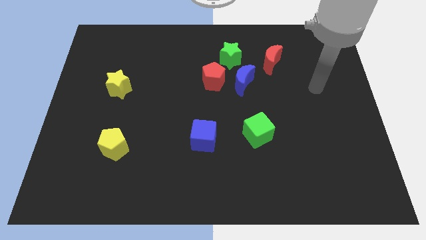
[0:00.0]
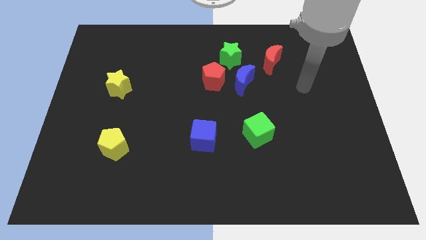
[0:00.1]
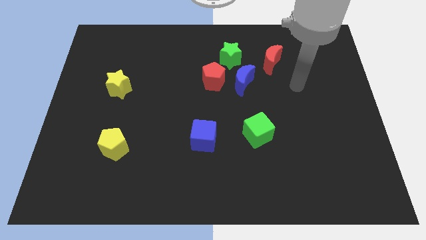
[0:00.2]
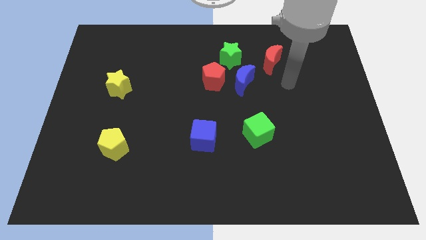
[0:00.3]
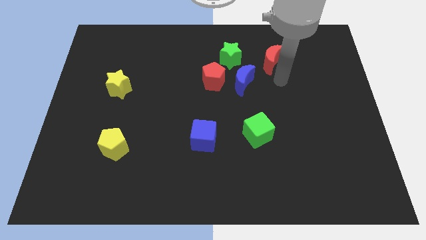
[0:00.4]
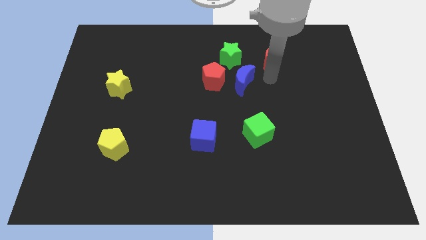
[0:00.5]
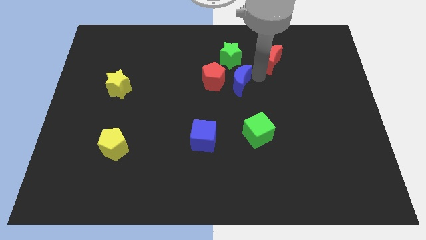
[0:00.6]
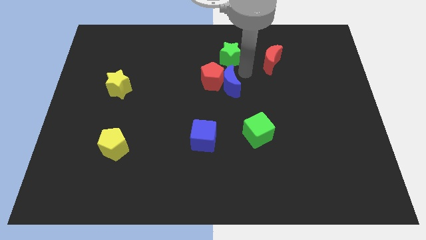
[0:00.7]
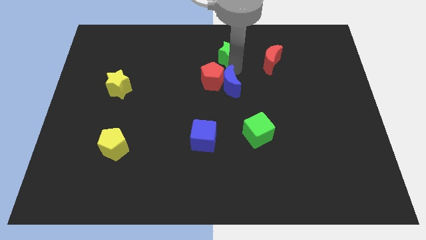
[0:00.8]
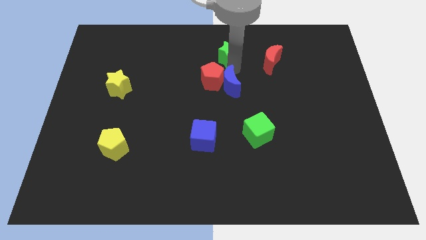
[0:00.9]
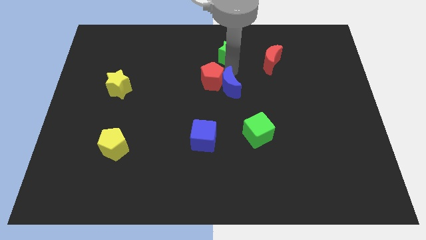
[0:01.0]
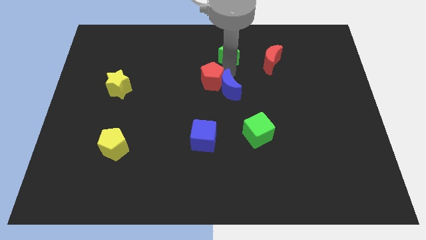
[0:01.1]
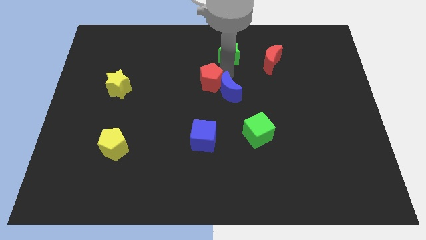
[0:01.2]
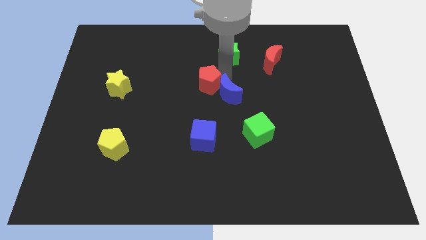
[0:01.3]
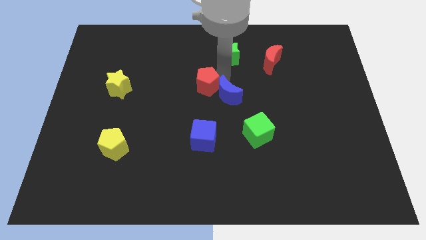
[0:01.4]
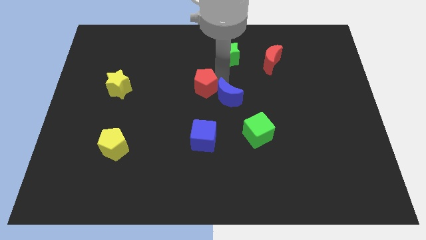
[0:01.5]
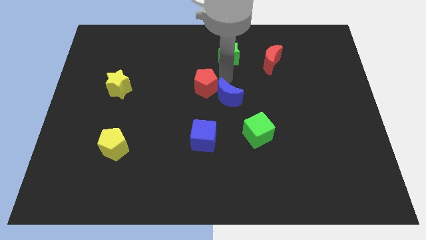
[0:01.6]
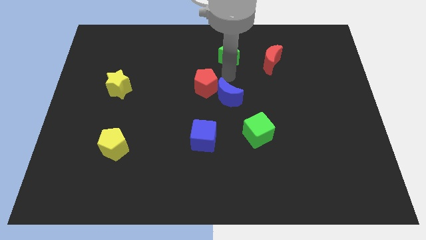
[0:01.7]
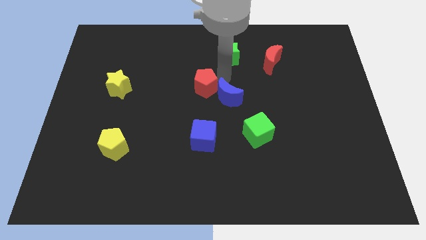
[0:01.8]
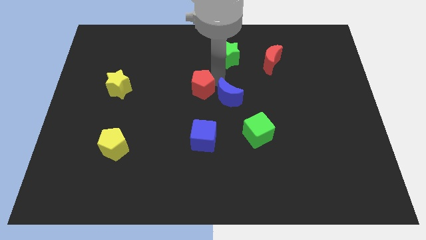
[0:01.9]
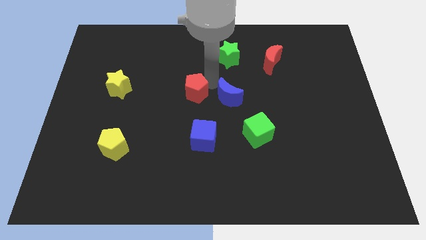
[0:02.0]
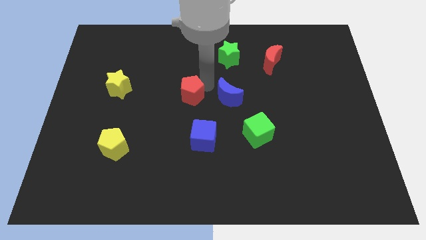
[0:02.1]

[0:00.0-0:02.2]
move the red pentagon away from the blue moon and green star

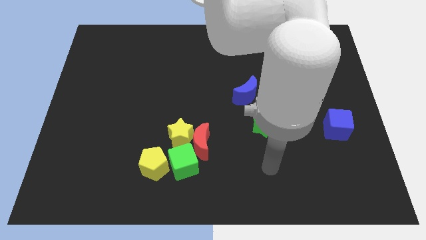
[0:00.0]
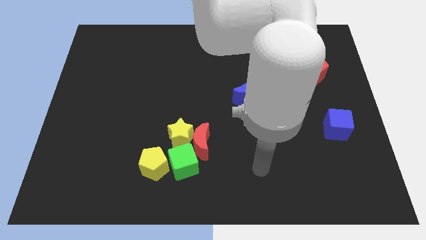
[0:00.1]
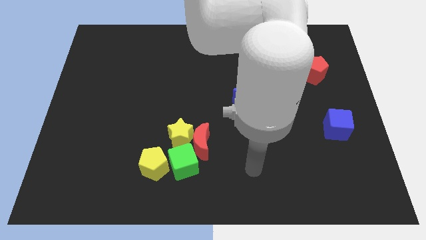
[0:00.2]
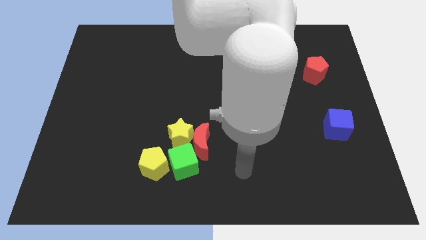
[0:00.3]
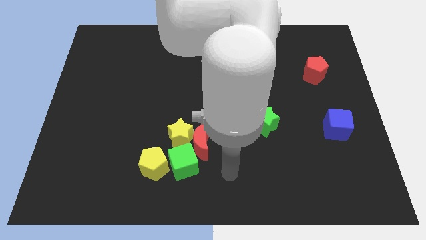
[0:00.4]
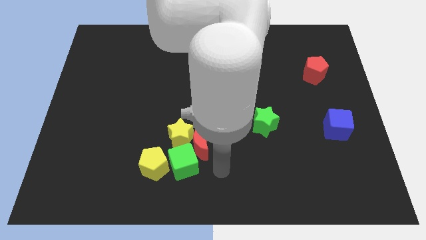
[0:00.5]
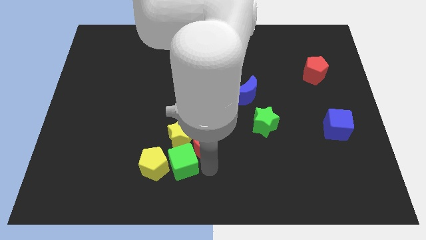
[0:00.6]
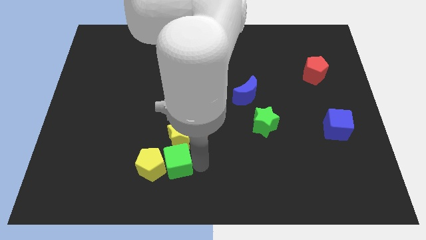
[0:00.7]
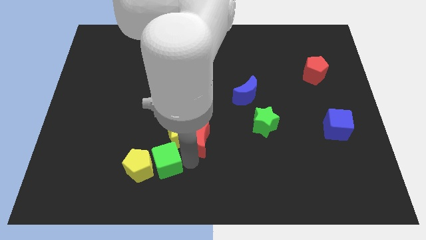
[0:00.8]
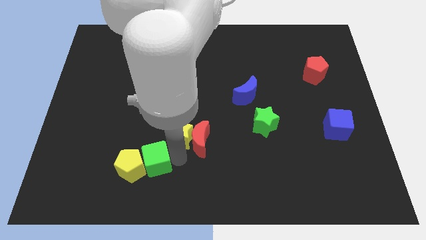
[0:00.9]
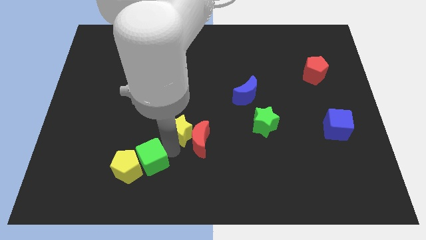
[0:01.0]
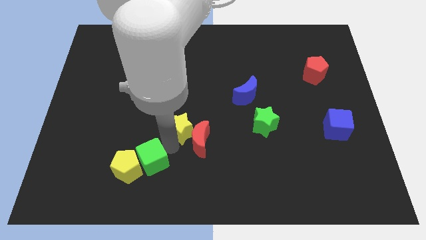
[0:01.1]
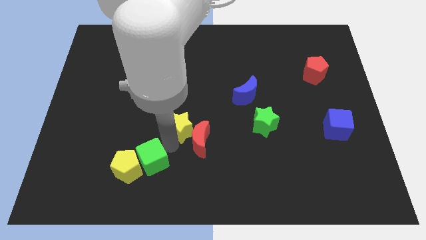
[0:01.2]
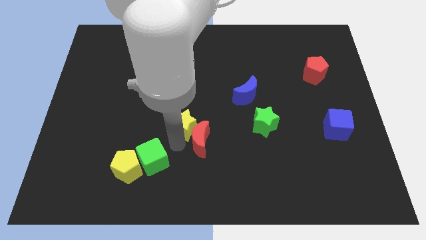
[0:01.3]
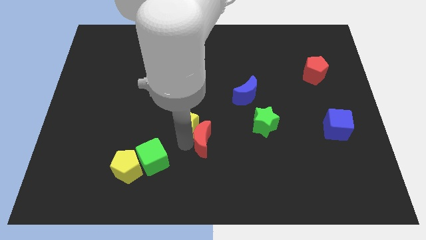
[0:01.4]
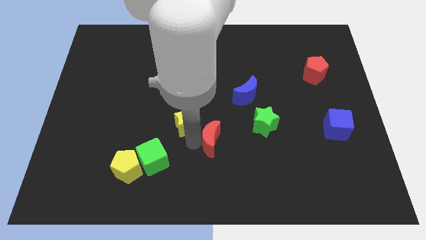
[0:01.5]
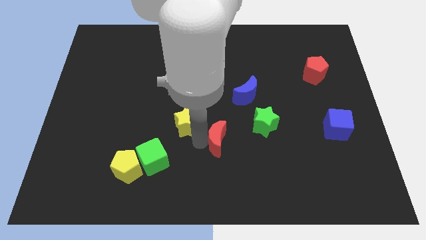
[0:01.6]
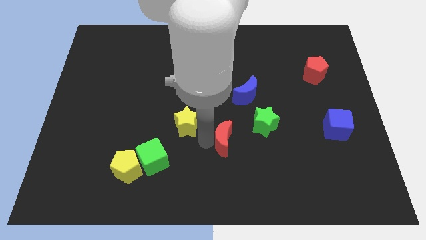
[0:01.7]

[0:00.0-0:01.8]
separate the red moon from the yellow star and green cube

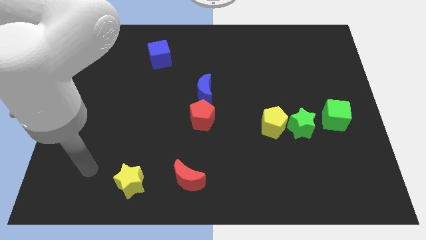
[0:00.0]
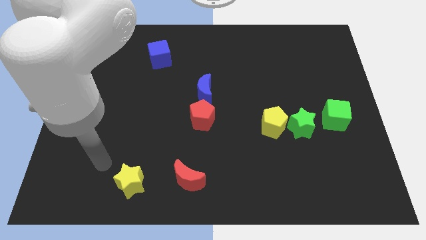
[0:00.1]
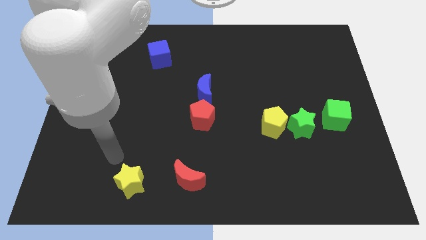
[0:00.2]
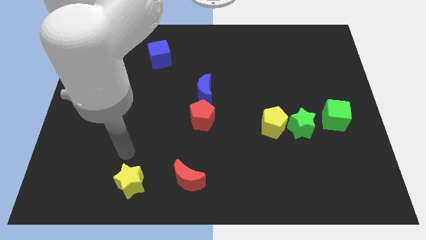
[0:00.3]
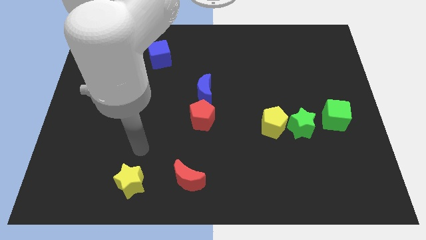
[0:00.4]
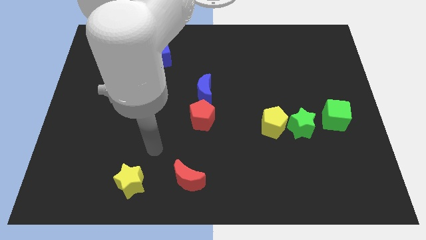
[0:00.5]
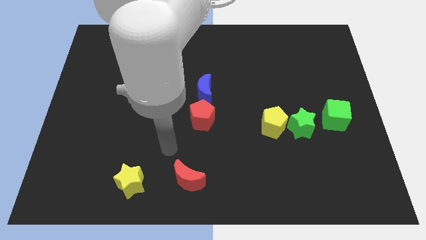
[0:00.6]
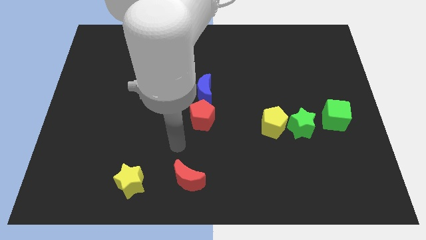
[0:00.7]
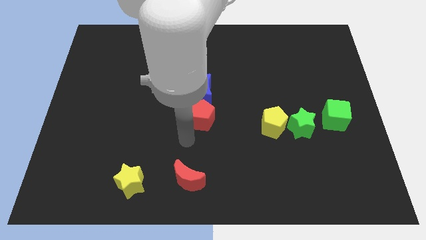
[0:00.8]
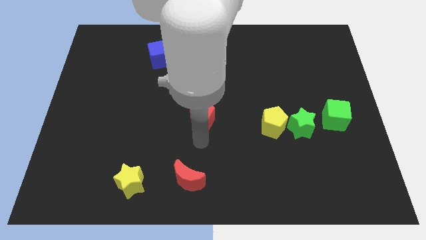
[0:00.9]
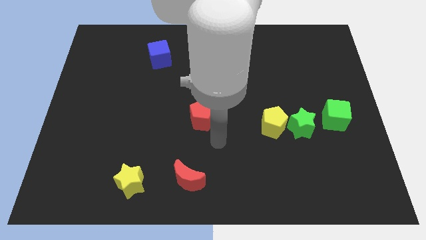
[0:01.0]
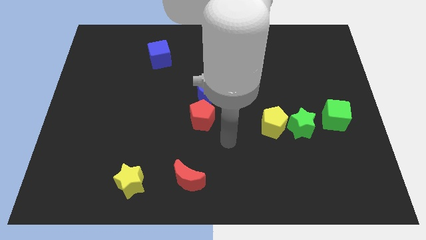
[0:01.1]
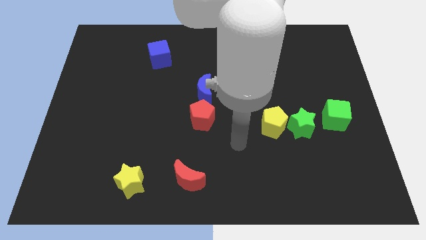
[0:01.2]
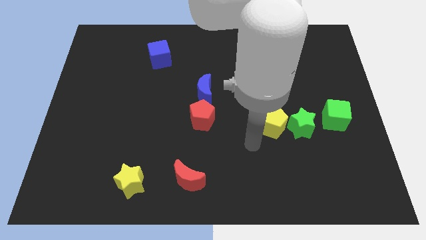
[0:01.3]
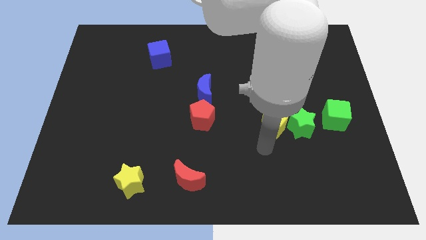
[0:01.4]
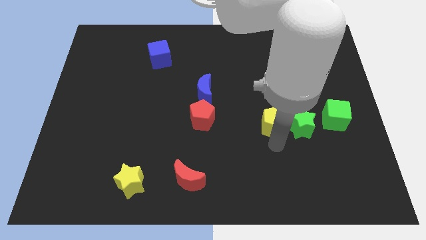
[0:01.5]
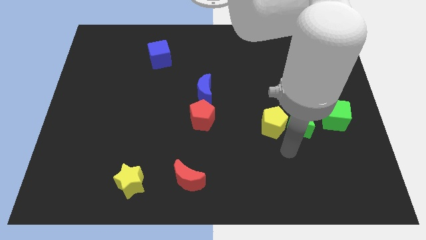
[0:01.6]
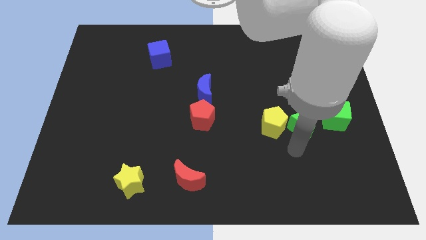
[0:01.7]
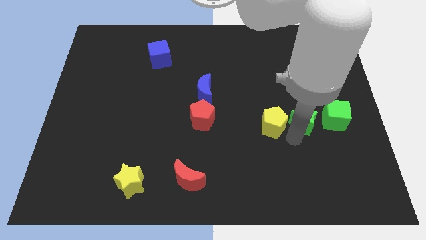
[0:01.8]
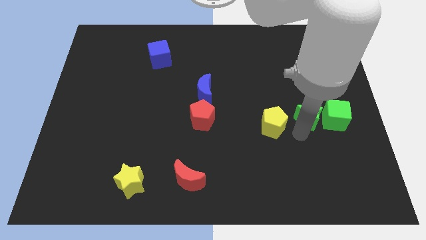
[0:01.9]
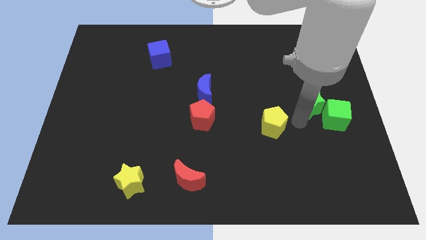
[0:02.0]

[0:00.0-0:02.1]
pull the yellow pentagon apart from the green star

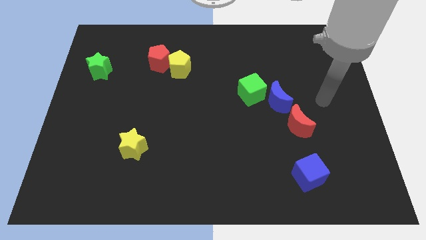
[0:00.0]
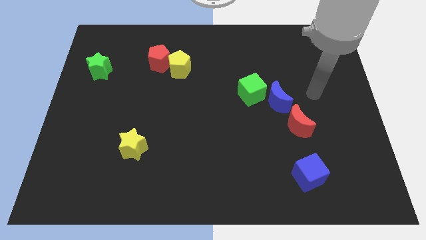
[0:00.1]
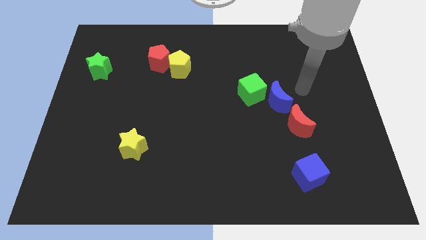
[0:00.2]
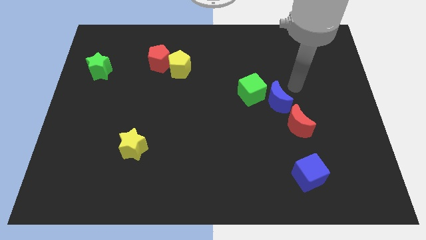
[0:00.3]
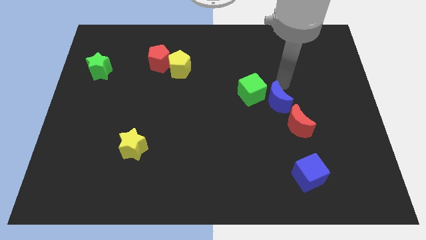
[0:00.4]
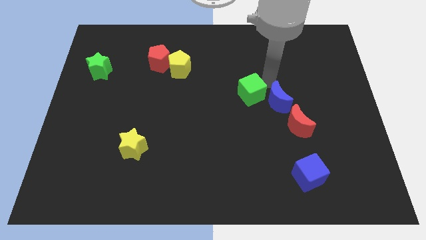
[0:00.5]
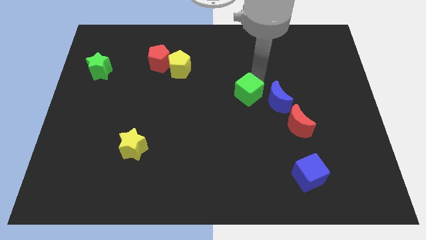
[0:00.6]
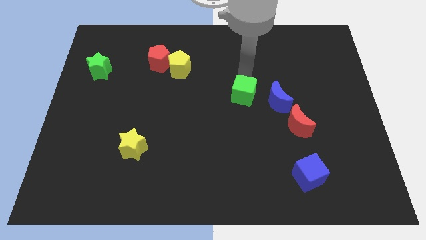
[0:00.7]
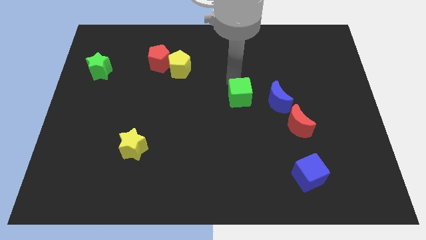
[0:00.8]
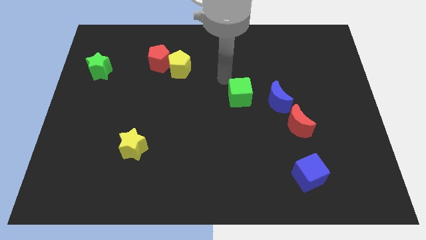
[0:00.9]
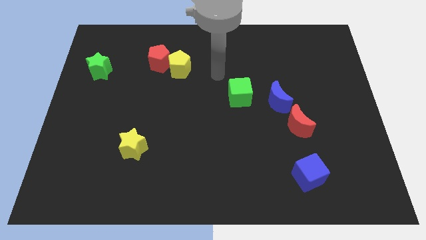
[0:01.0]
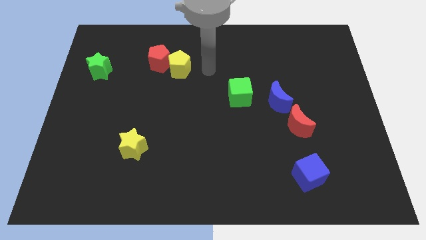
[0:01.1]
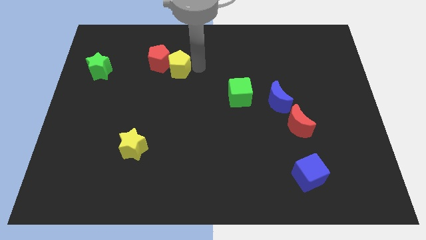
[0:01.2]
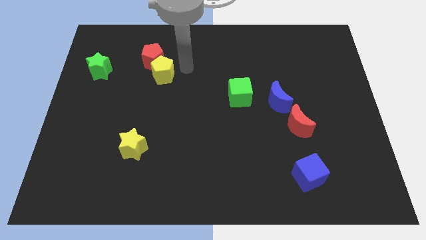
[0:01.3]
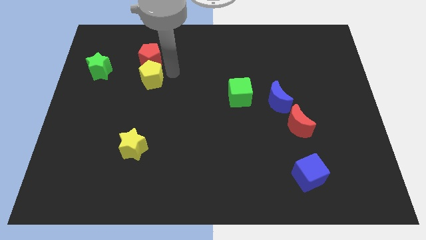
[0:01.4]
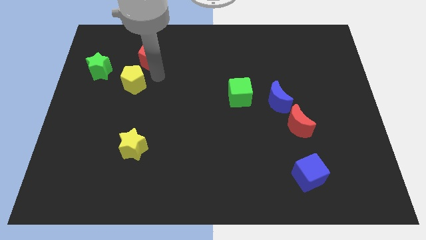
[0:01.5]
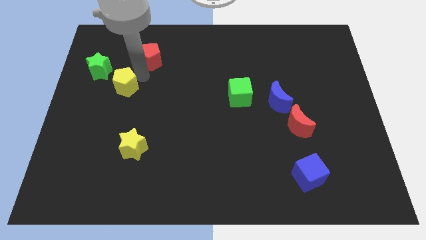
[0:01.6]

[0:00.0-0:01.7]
separate the red pentagon from the yellow pentagon

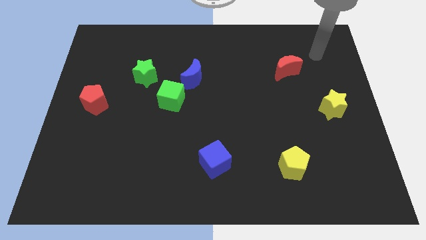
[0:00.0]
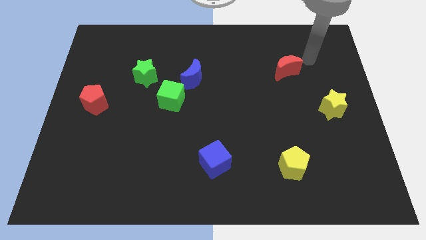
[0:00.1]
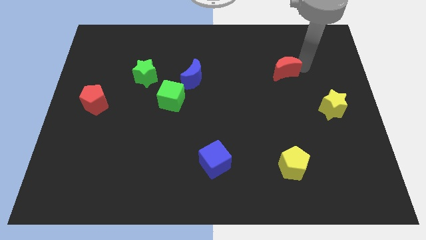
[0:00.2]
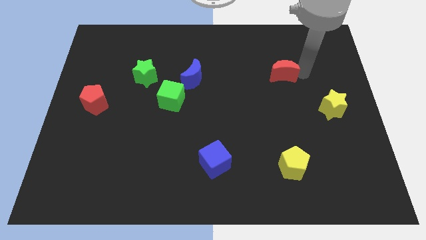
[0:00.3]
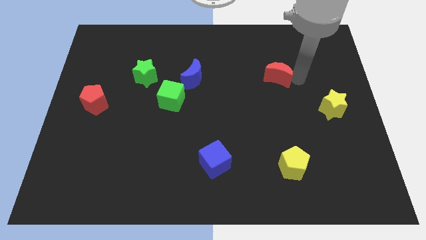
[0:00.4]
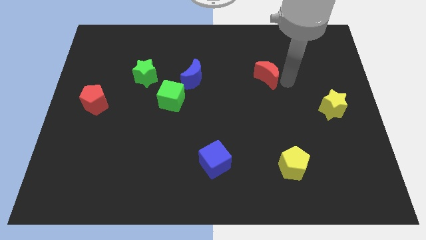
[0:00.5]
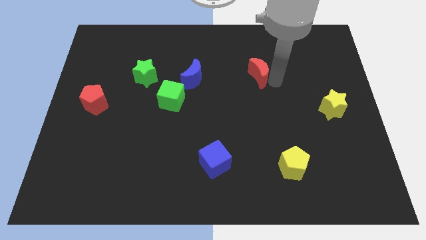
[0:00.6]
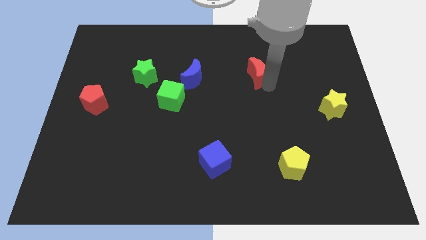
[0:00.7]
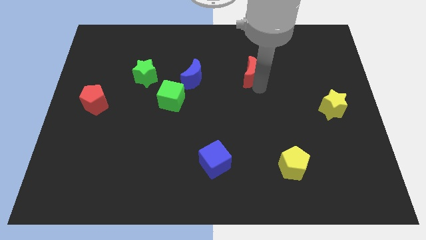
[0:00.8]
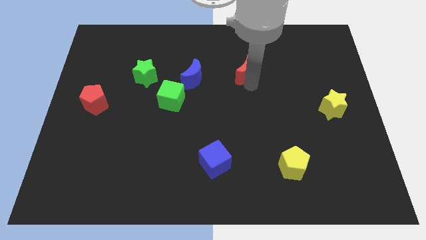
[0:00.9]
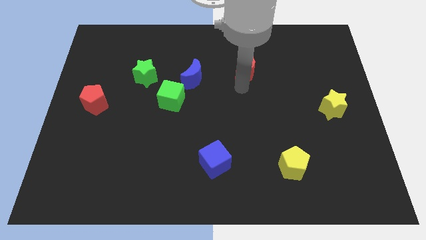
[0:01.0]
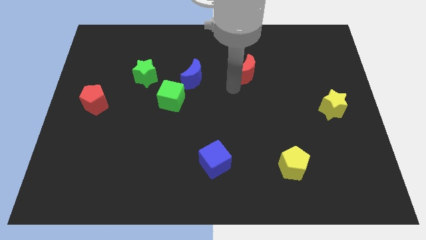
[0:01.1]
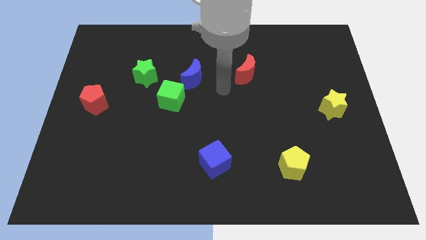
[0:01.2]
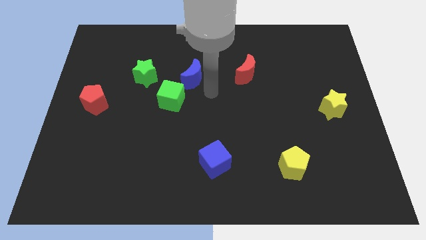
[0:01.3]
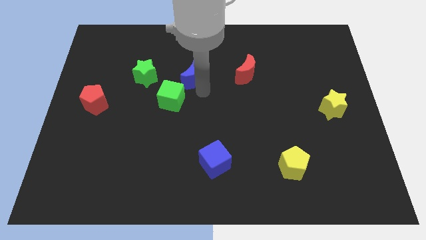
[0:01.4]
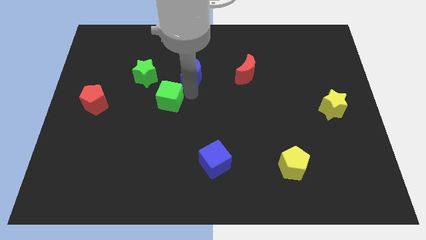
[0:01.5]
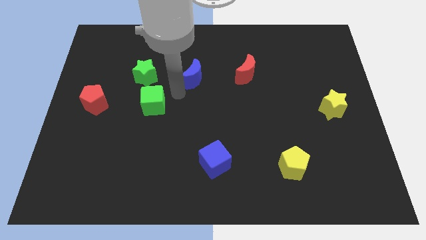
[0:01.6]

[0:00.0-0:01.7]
pull the blue moon apart from the green cube
